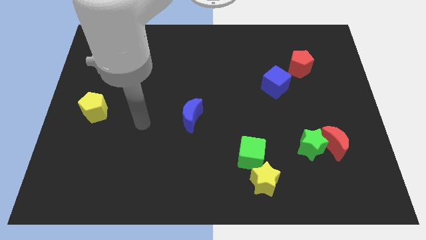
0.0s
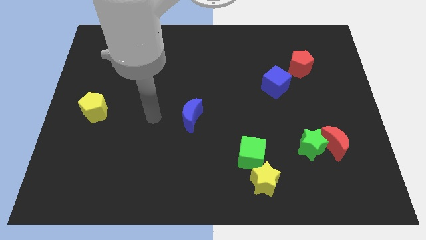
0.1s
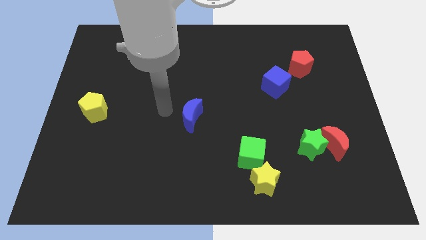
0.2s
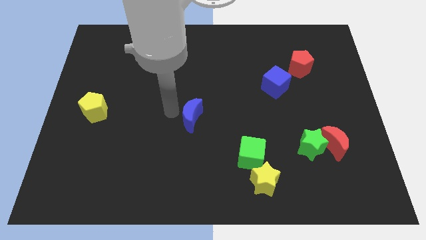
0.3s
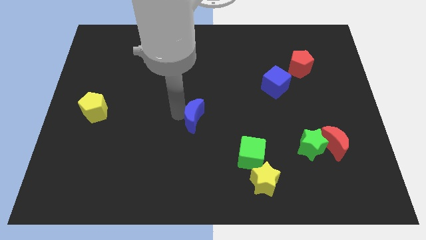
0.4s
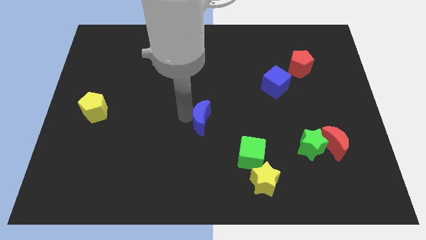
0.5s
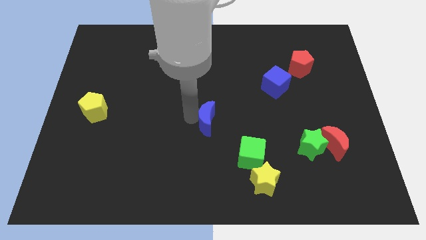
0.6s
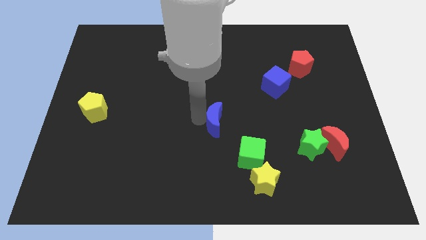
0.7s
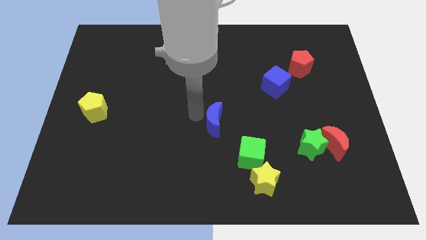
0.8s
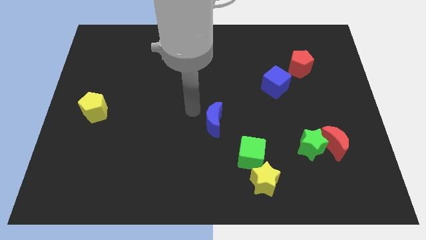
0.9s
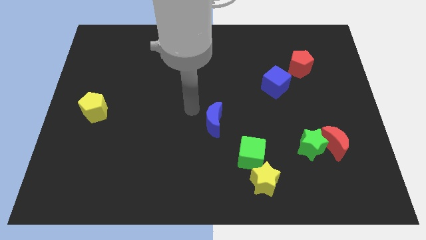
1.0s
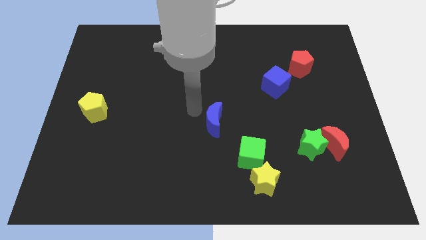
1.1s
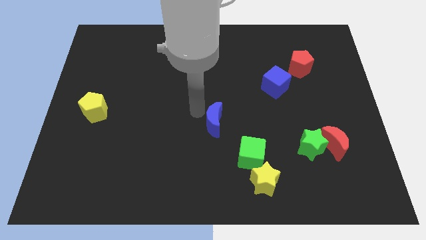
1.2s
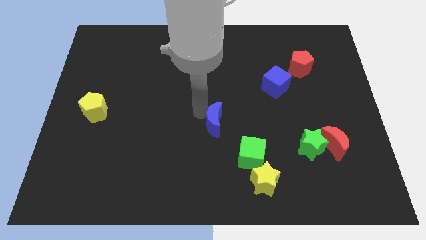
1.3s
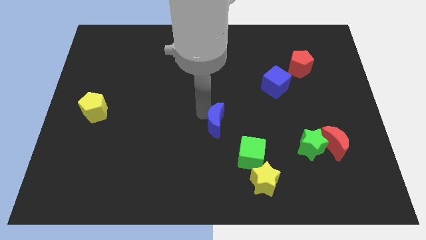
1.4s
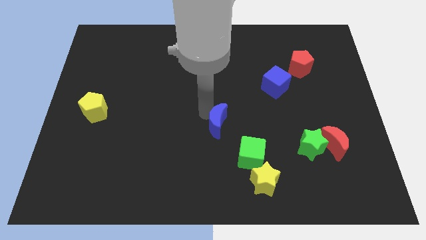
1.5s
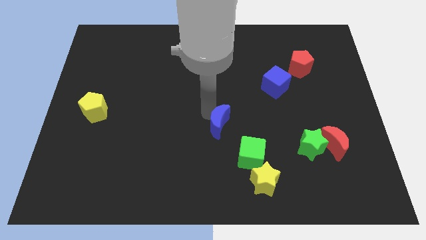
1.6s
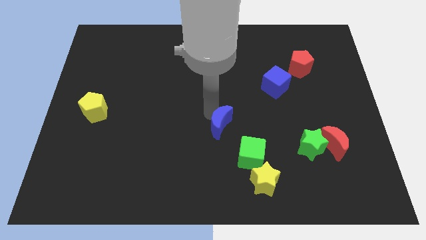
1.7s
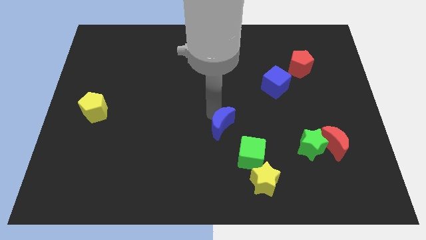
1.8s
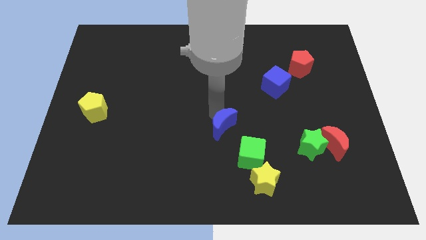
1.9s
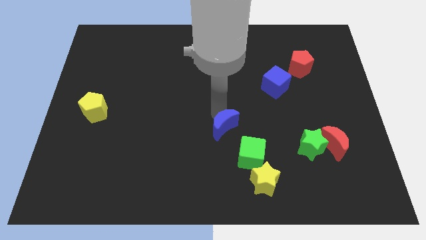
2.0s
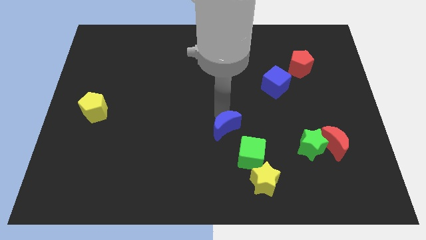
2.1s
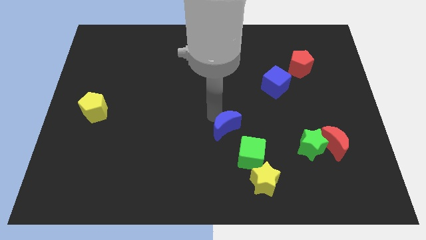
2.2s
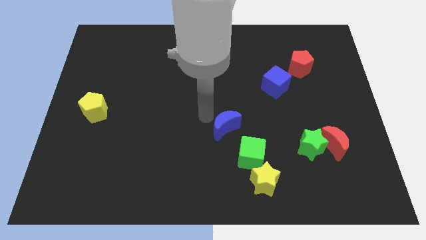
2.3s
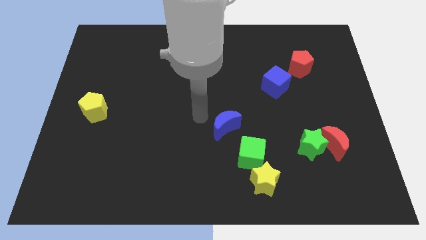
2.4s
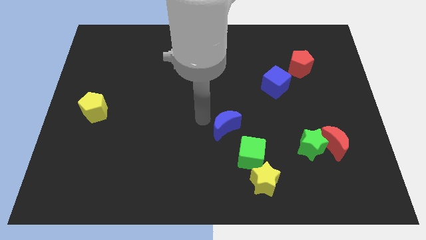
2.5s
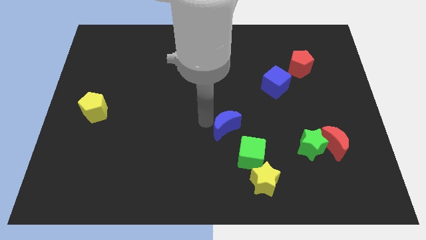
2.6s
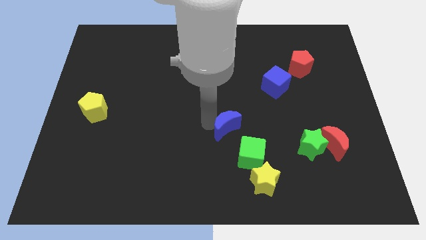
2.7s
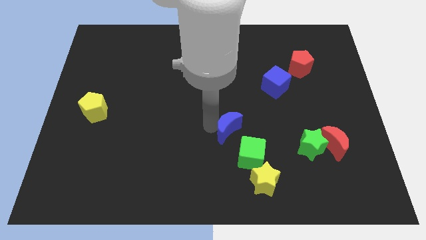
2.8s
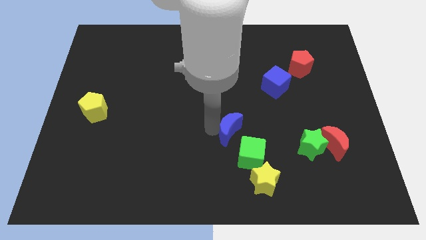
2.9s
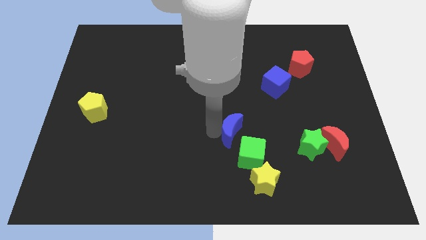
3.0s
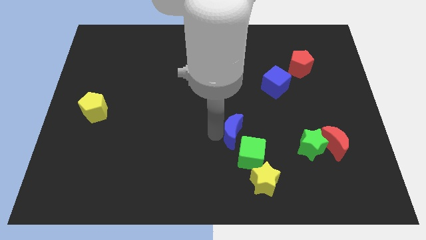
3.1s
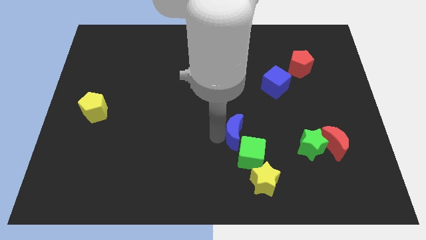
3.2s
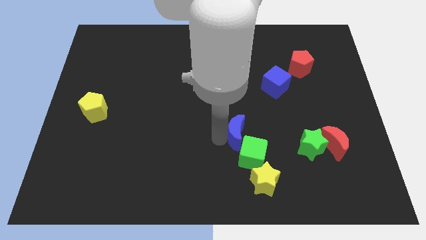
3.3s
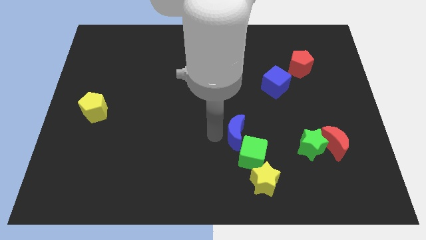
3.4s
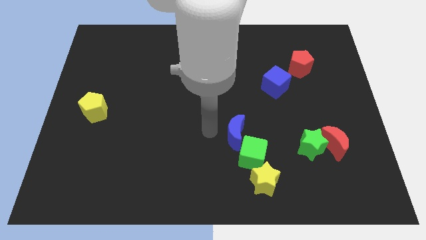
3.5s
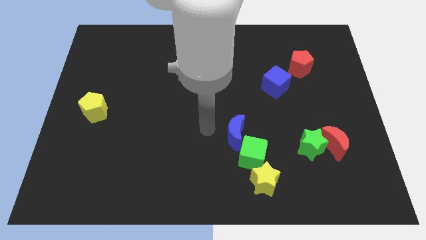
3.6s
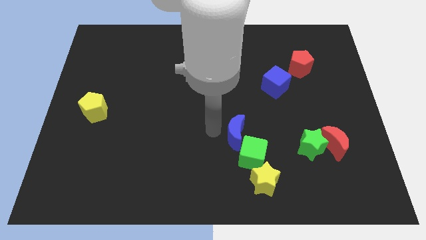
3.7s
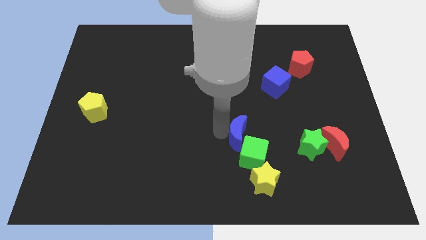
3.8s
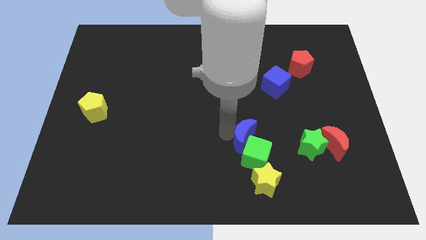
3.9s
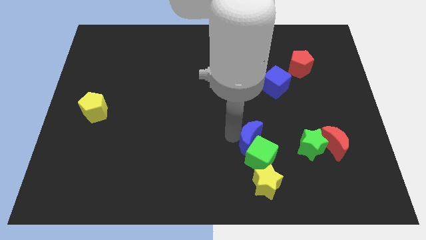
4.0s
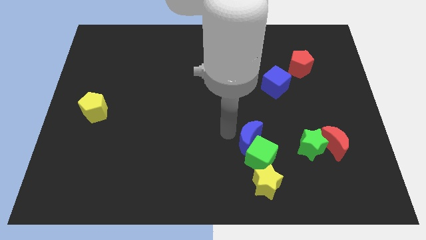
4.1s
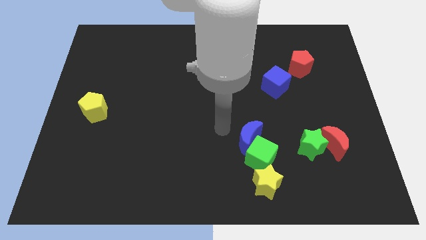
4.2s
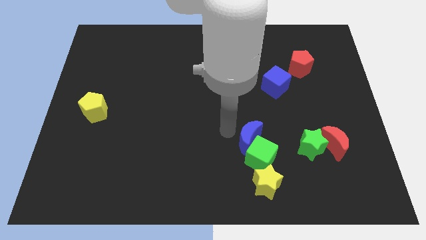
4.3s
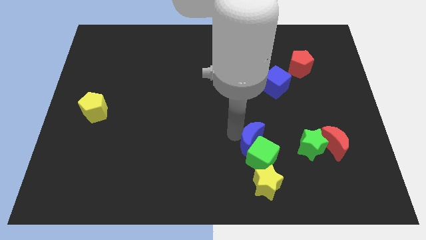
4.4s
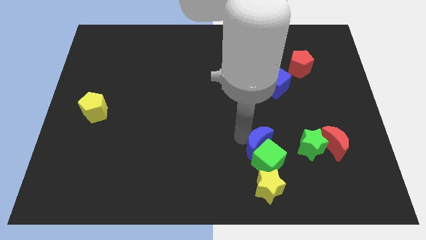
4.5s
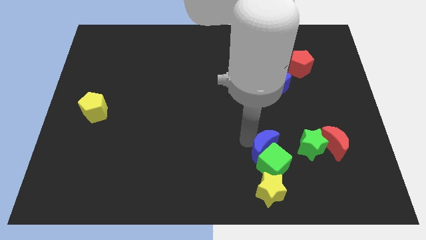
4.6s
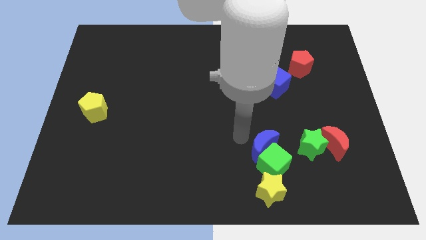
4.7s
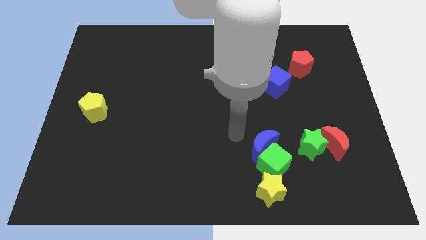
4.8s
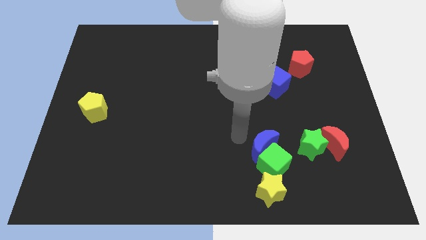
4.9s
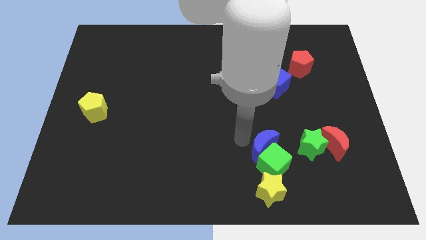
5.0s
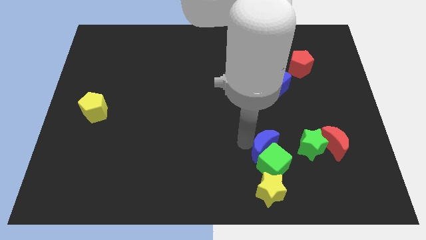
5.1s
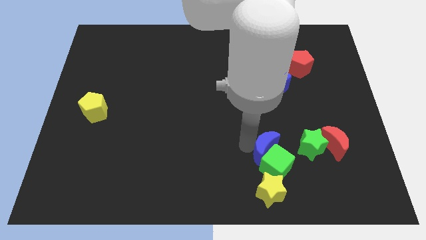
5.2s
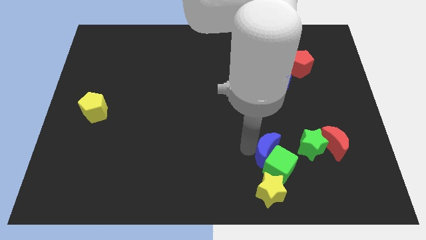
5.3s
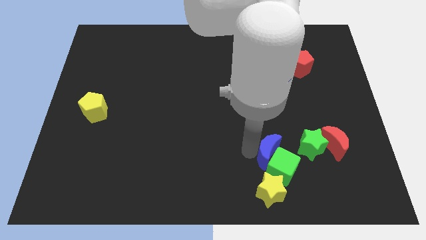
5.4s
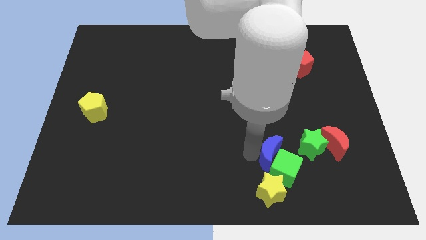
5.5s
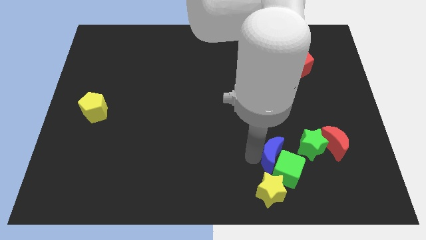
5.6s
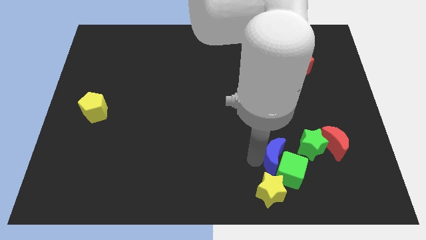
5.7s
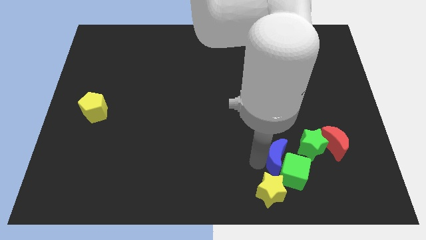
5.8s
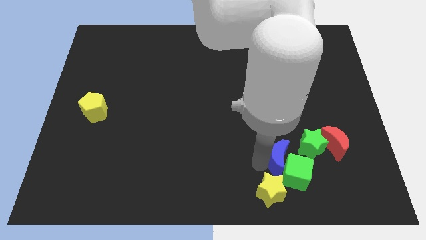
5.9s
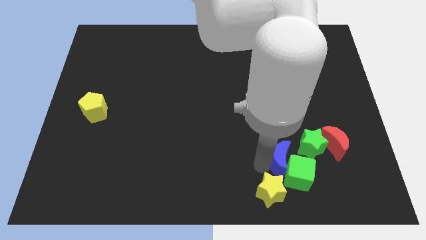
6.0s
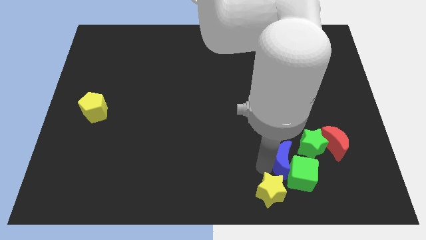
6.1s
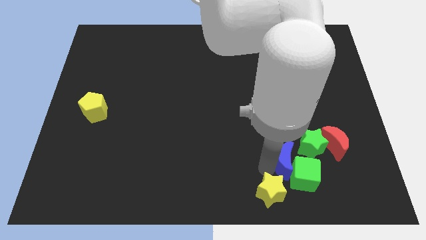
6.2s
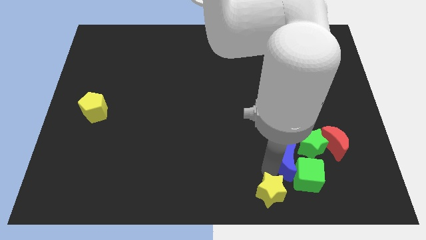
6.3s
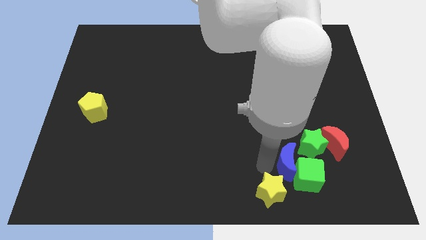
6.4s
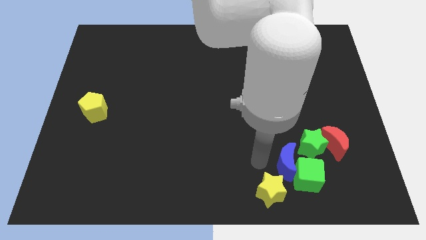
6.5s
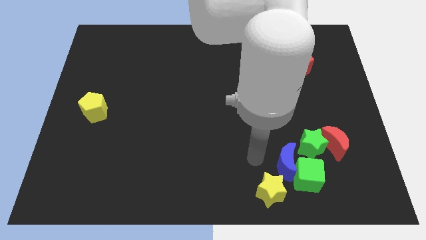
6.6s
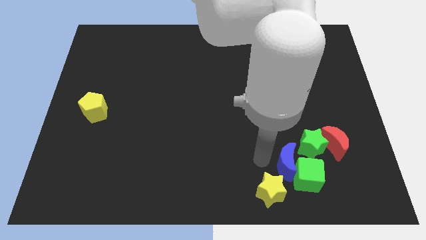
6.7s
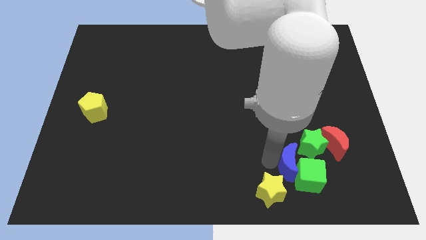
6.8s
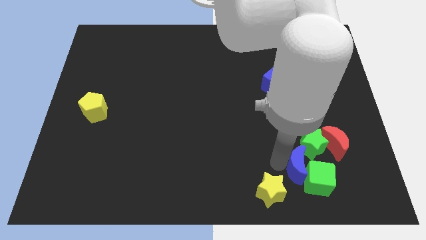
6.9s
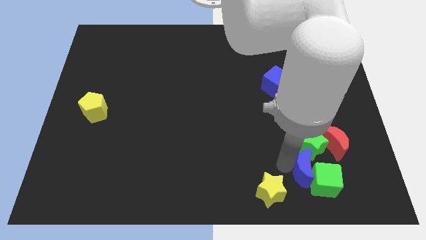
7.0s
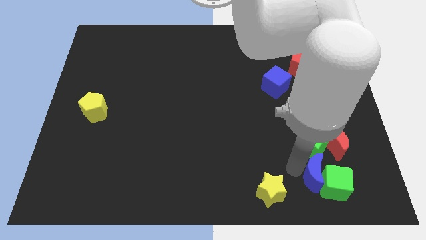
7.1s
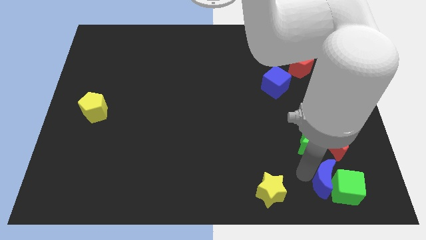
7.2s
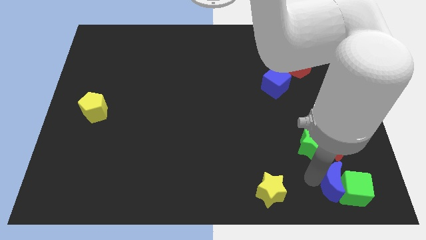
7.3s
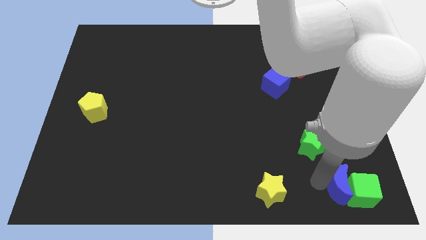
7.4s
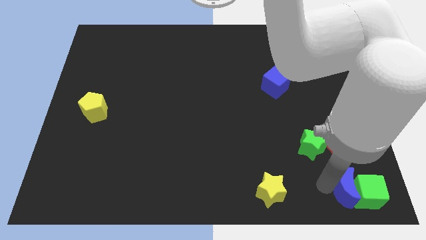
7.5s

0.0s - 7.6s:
put the blue moon to the bottom right
